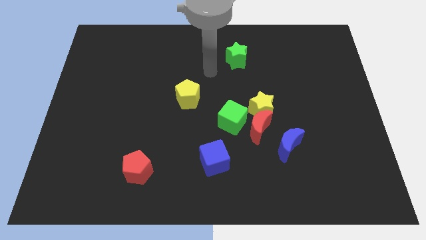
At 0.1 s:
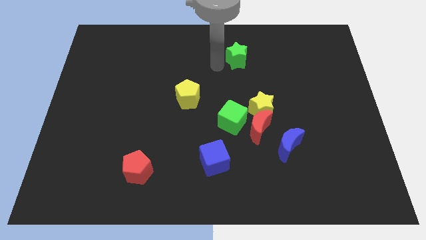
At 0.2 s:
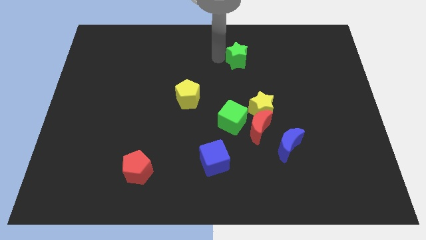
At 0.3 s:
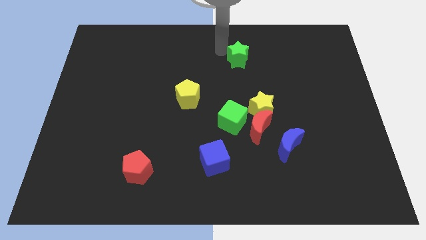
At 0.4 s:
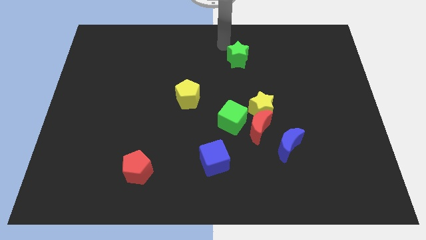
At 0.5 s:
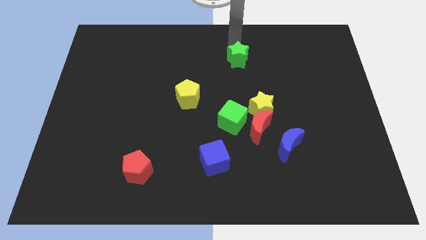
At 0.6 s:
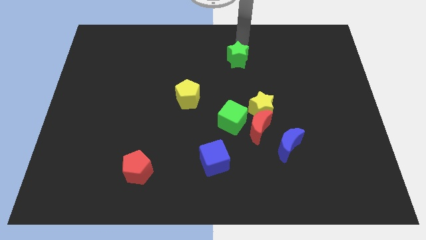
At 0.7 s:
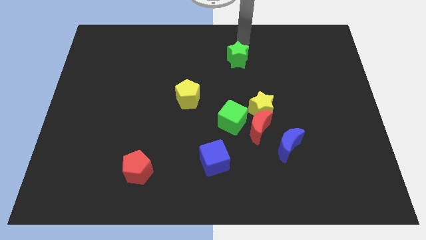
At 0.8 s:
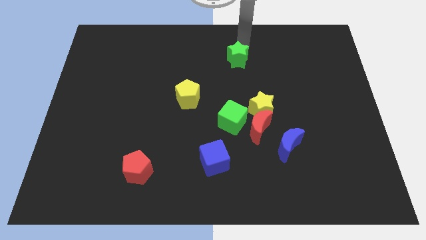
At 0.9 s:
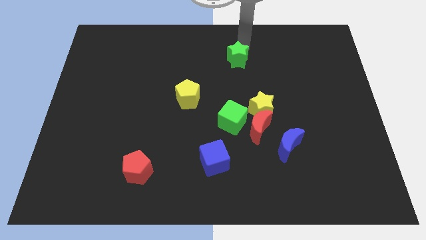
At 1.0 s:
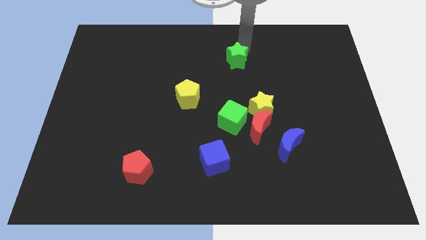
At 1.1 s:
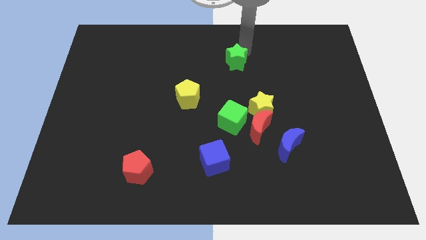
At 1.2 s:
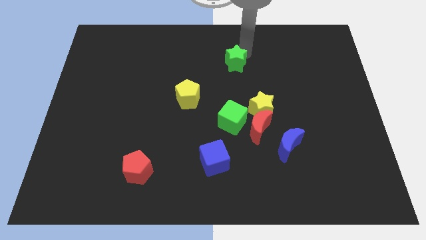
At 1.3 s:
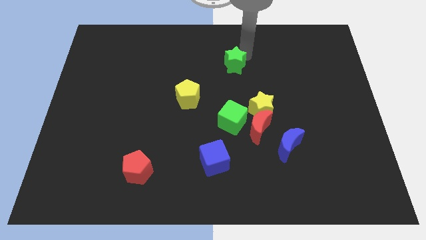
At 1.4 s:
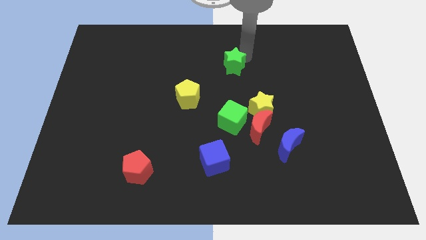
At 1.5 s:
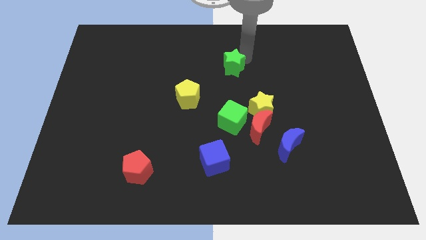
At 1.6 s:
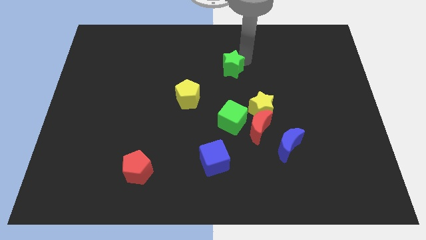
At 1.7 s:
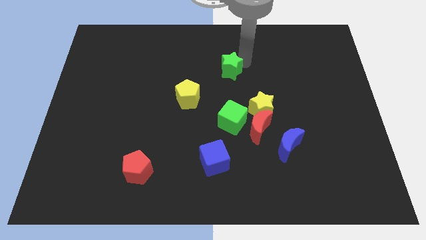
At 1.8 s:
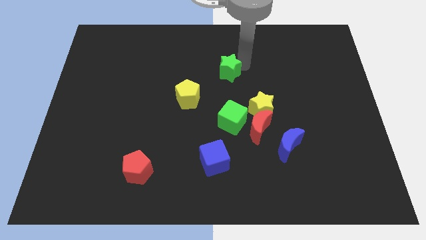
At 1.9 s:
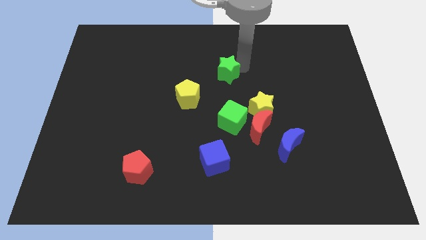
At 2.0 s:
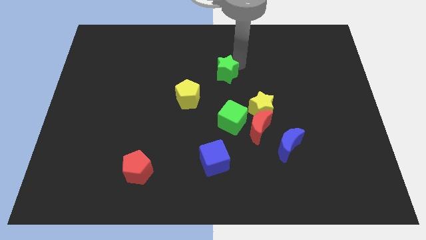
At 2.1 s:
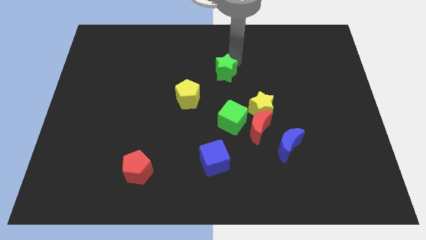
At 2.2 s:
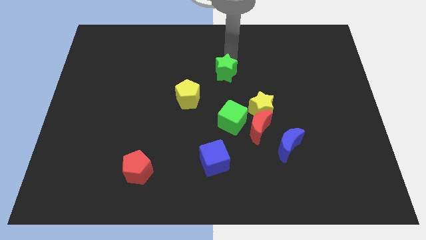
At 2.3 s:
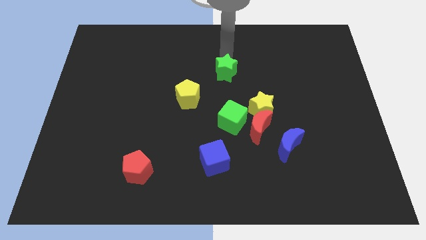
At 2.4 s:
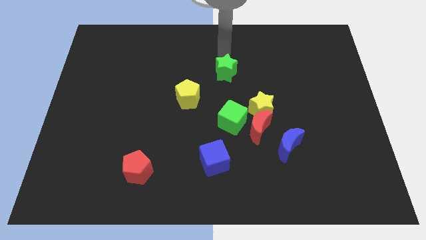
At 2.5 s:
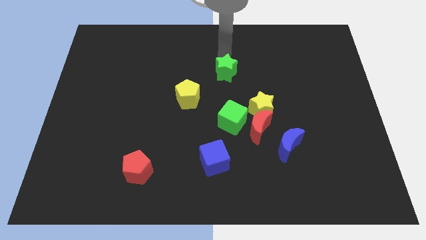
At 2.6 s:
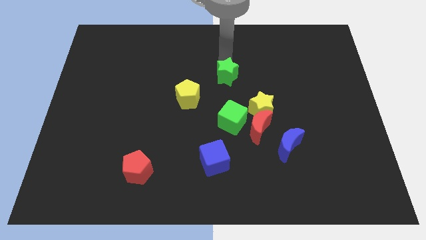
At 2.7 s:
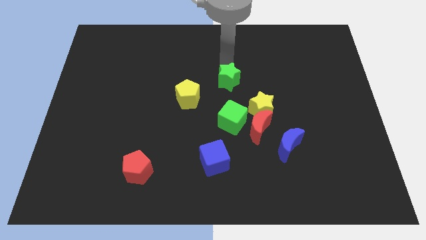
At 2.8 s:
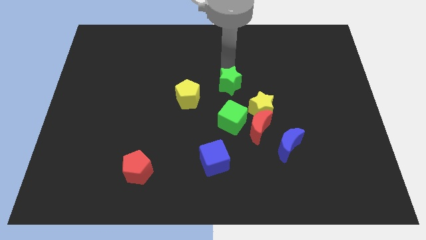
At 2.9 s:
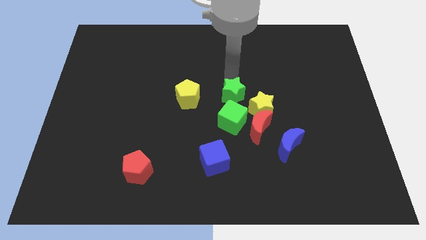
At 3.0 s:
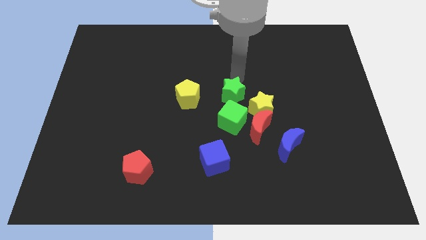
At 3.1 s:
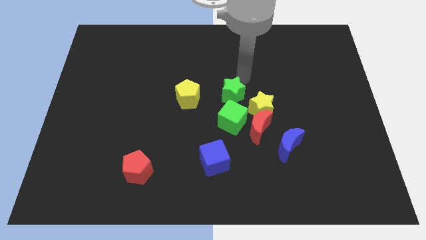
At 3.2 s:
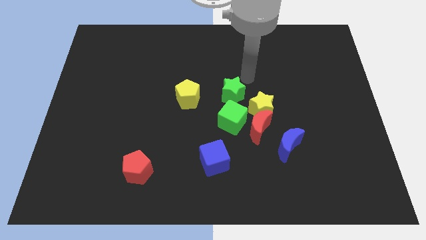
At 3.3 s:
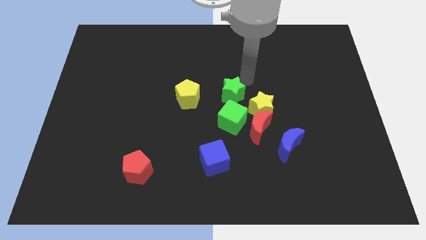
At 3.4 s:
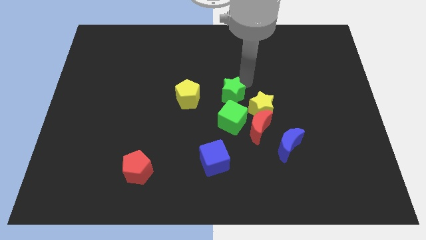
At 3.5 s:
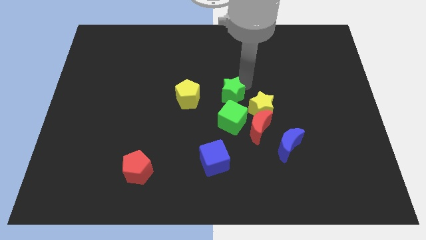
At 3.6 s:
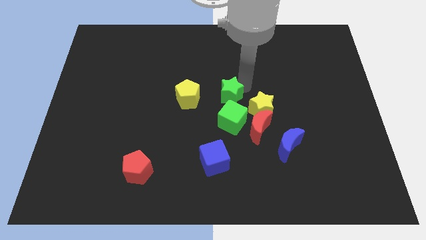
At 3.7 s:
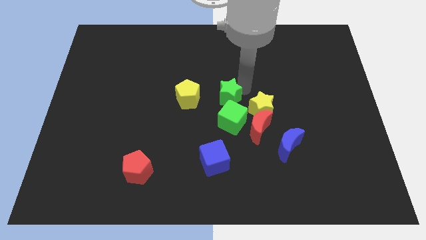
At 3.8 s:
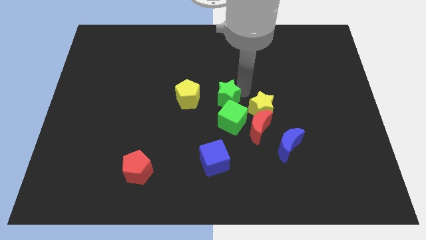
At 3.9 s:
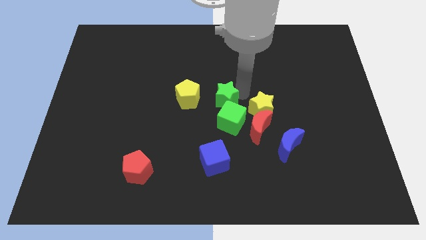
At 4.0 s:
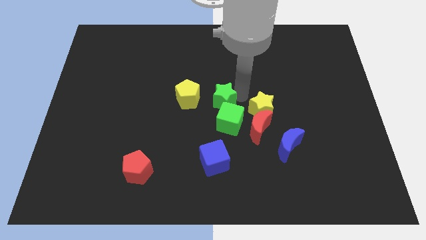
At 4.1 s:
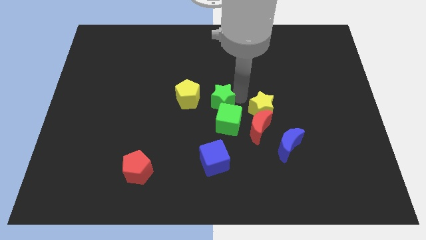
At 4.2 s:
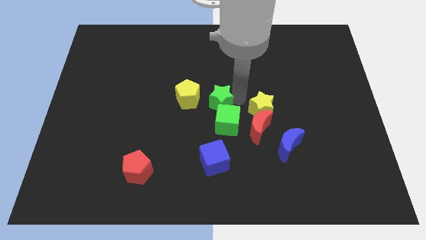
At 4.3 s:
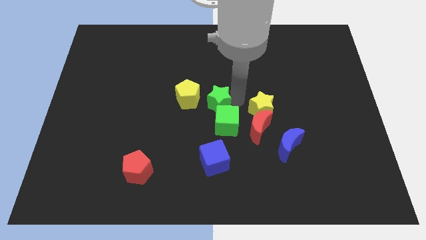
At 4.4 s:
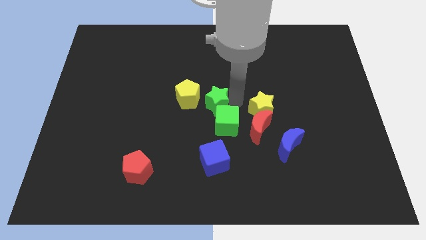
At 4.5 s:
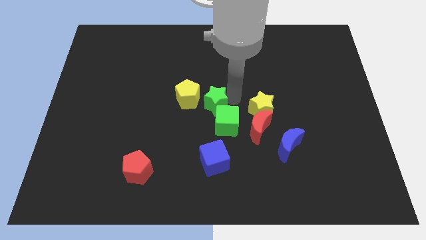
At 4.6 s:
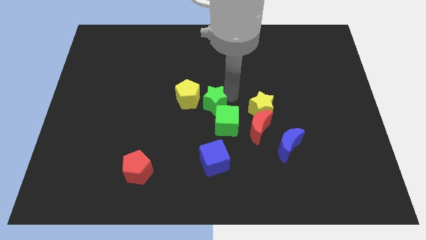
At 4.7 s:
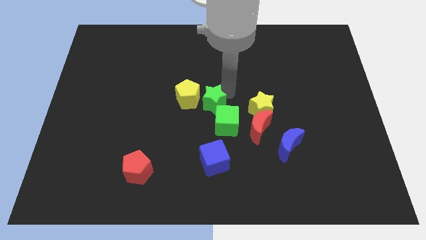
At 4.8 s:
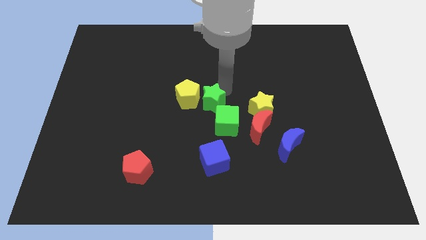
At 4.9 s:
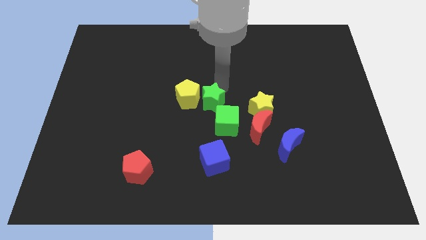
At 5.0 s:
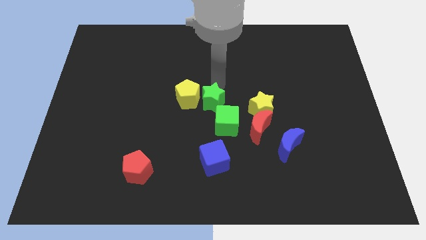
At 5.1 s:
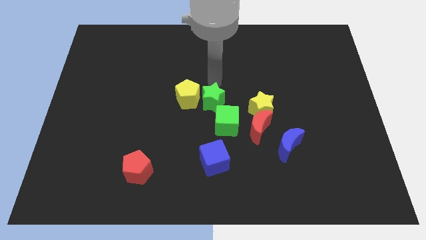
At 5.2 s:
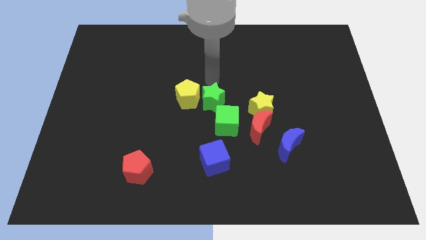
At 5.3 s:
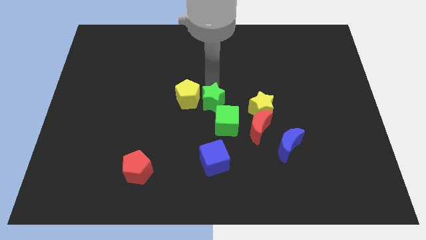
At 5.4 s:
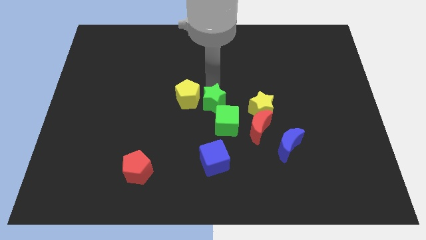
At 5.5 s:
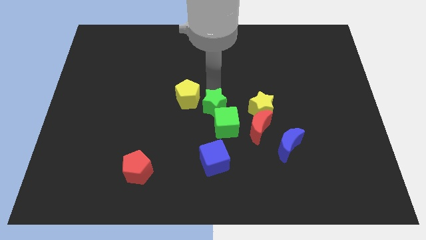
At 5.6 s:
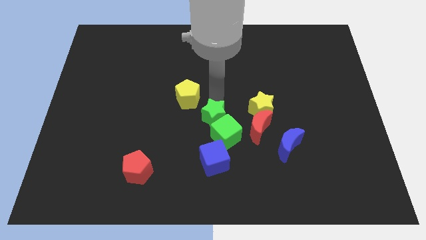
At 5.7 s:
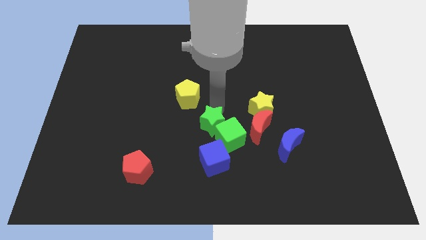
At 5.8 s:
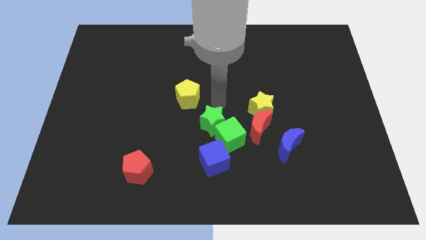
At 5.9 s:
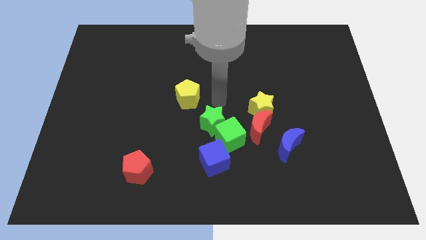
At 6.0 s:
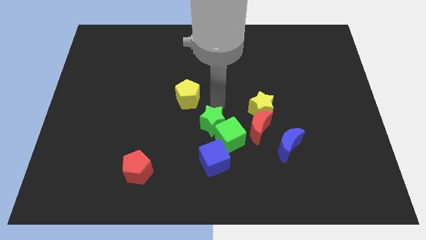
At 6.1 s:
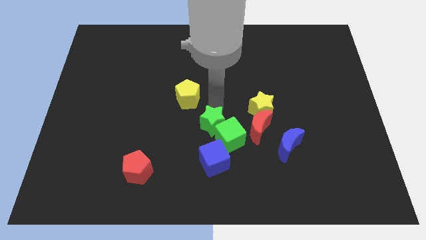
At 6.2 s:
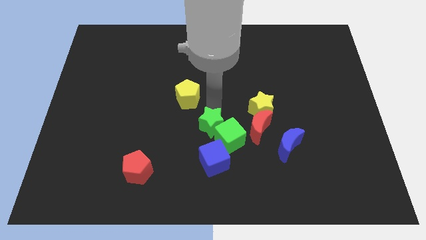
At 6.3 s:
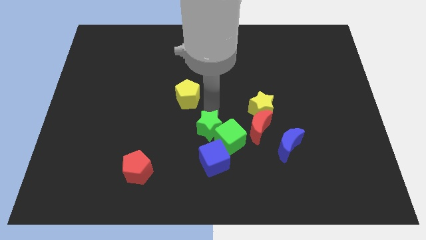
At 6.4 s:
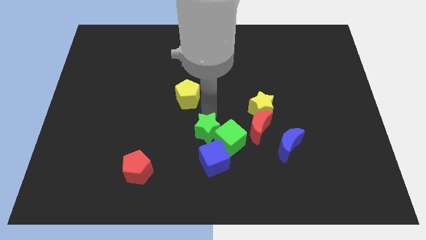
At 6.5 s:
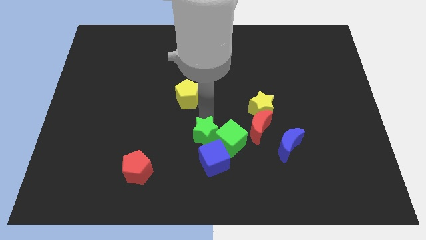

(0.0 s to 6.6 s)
push the green star to the bottom left of the green cube

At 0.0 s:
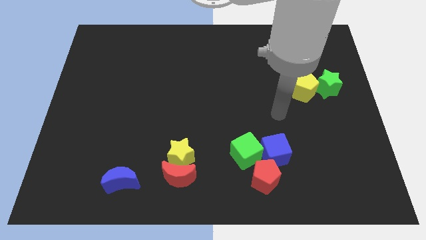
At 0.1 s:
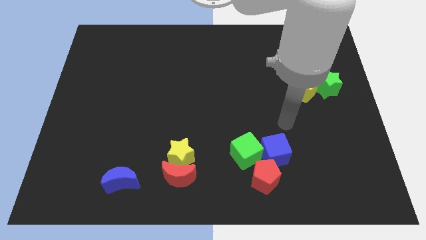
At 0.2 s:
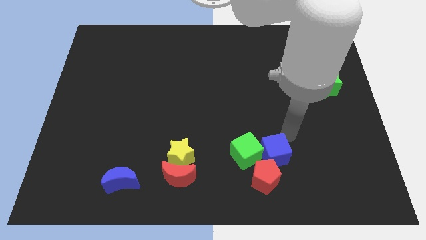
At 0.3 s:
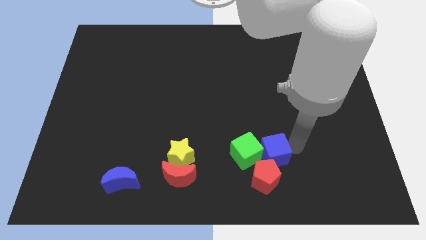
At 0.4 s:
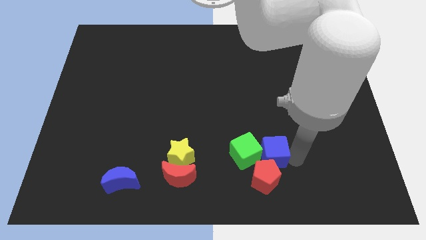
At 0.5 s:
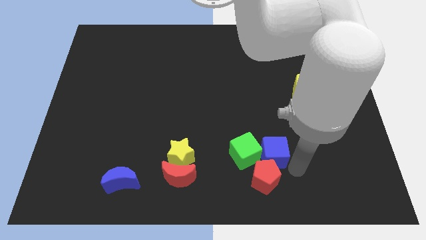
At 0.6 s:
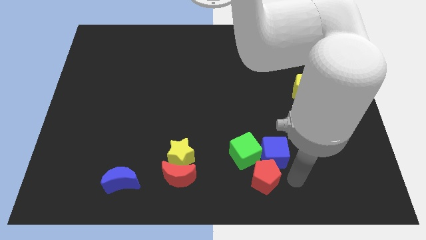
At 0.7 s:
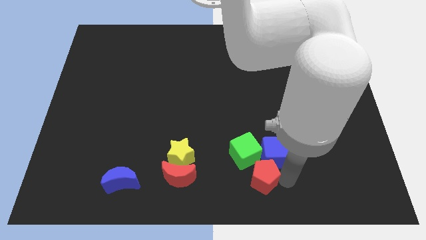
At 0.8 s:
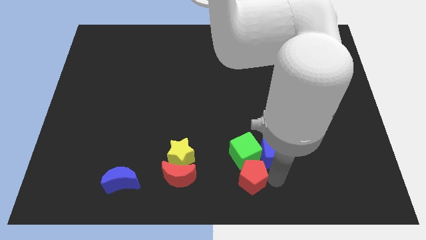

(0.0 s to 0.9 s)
slide the red pentagon diagonally down and to the left of the green cube
